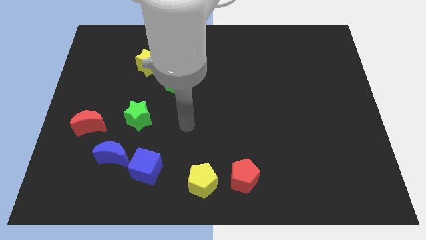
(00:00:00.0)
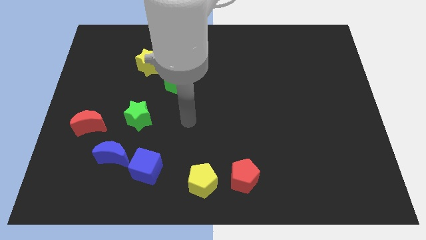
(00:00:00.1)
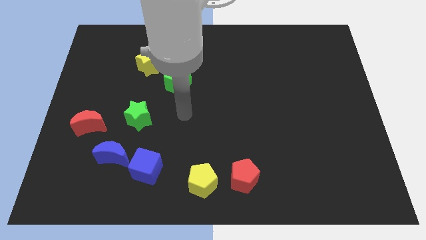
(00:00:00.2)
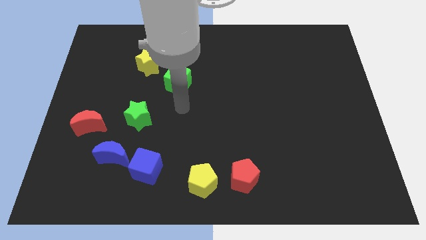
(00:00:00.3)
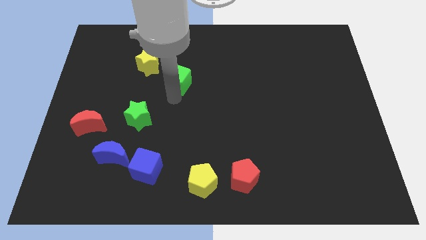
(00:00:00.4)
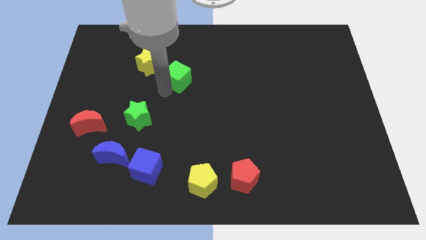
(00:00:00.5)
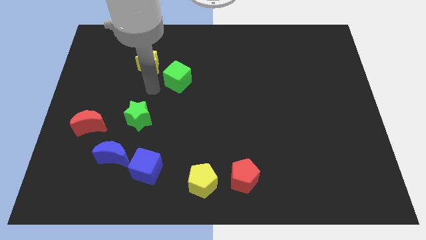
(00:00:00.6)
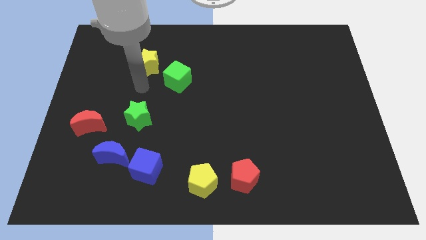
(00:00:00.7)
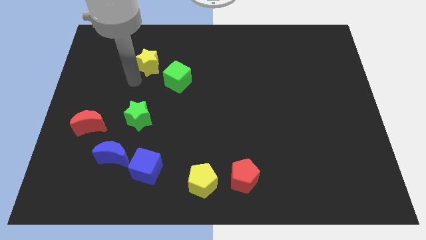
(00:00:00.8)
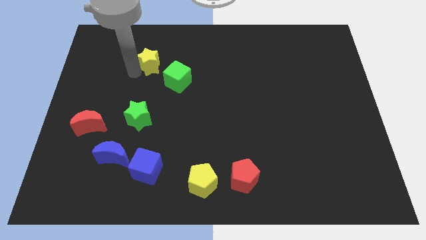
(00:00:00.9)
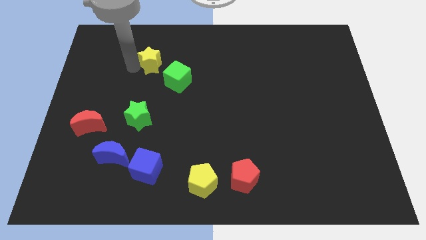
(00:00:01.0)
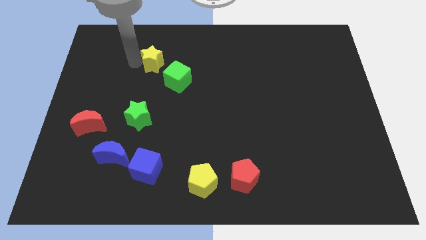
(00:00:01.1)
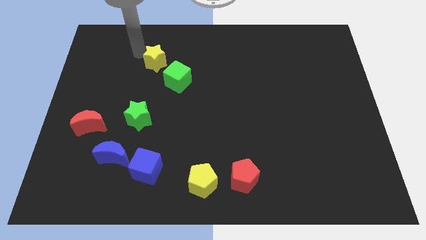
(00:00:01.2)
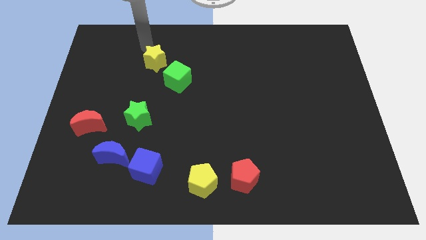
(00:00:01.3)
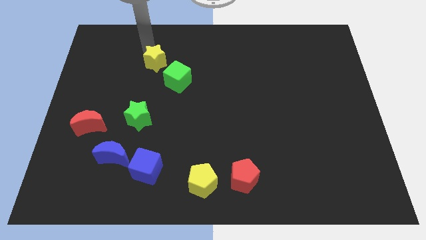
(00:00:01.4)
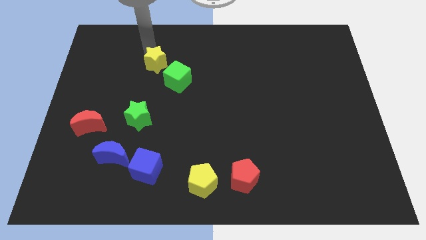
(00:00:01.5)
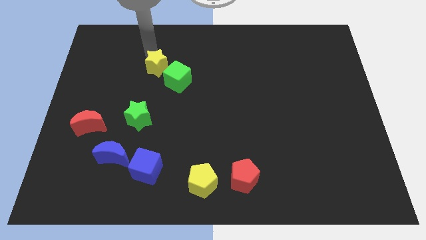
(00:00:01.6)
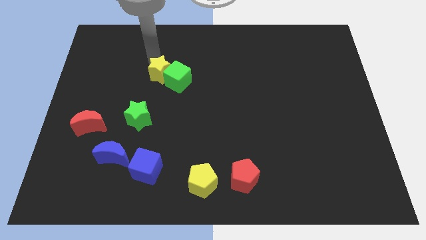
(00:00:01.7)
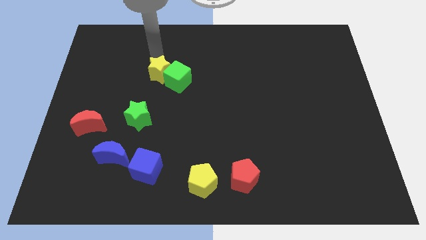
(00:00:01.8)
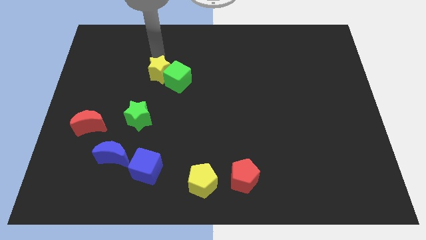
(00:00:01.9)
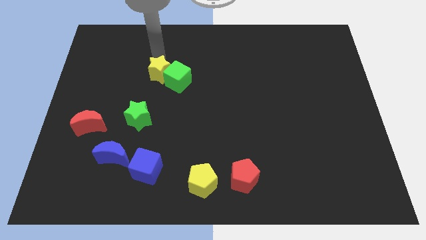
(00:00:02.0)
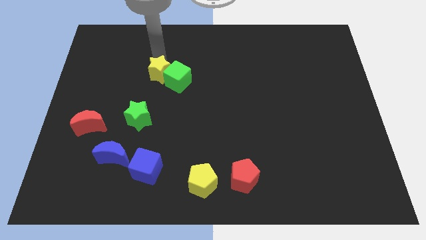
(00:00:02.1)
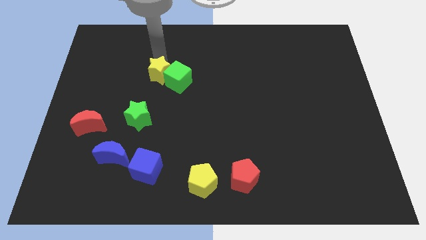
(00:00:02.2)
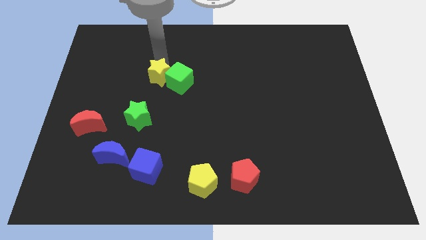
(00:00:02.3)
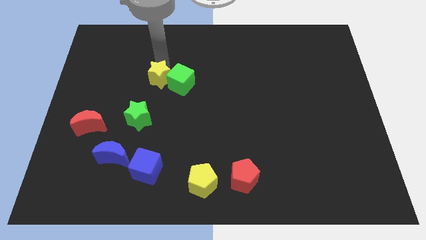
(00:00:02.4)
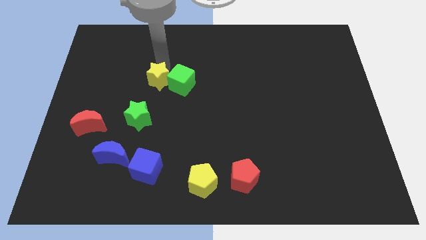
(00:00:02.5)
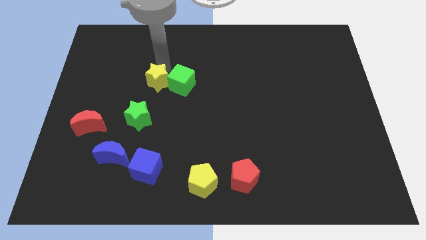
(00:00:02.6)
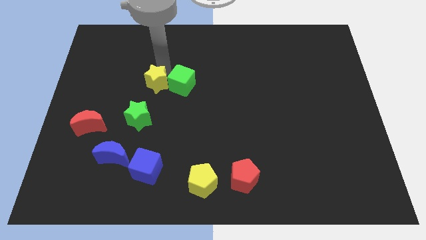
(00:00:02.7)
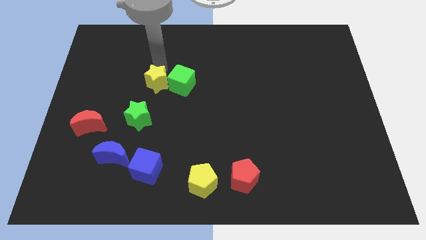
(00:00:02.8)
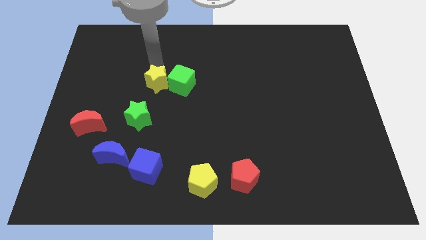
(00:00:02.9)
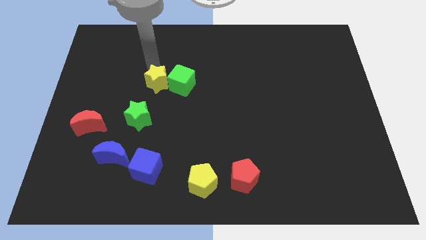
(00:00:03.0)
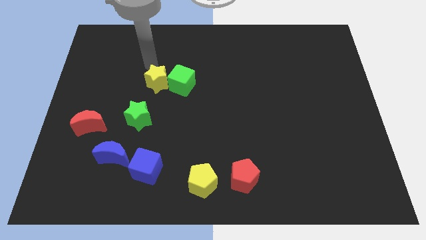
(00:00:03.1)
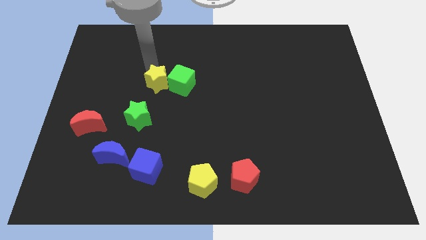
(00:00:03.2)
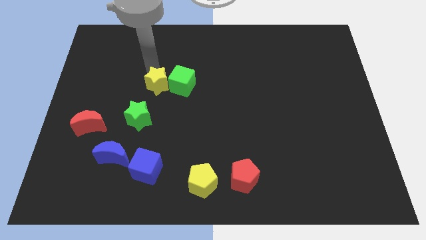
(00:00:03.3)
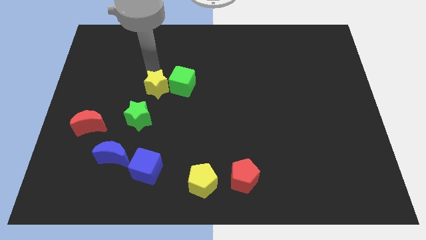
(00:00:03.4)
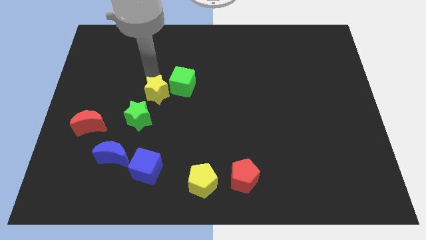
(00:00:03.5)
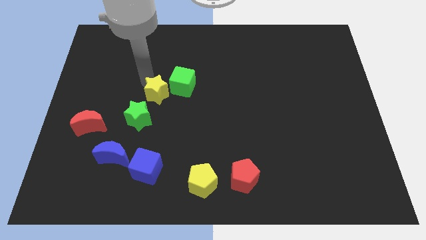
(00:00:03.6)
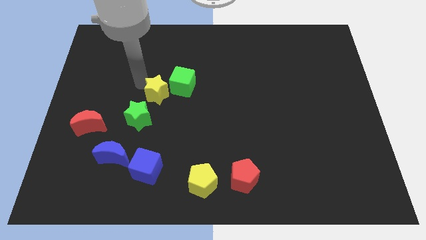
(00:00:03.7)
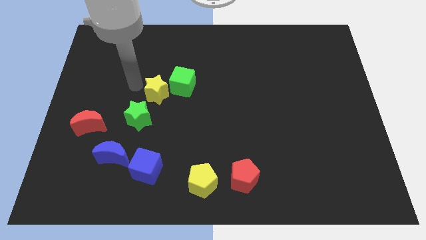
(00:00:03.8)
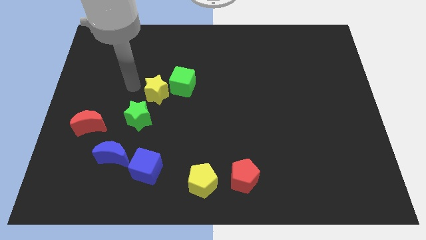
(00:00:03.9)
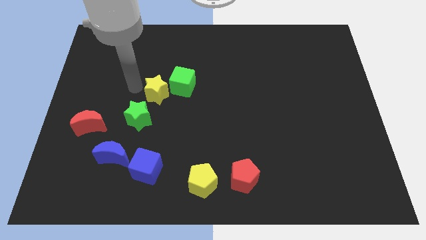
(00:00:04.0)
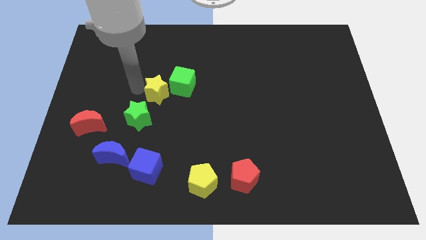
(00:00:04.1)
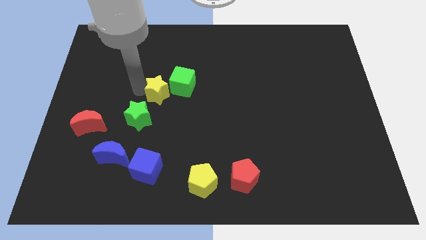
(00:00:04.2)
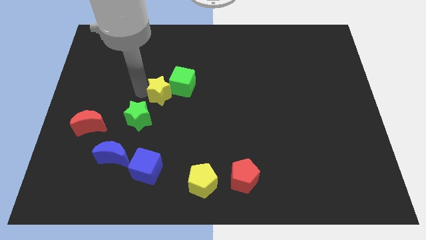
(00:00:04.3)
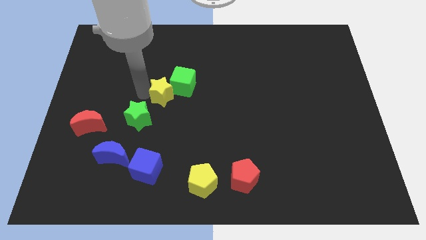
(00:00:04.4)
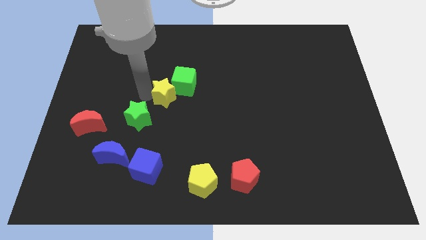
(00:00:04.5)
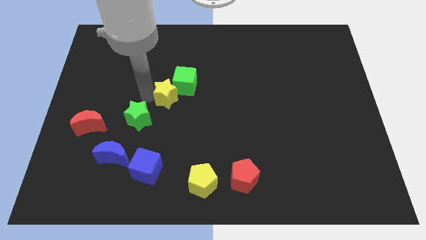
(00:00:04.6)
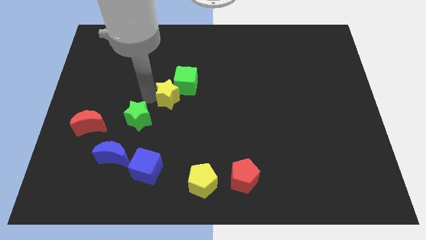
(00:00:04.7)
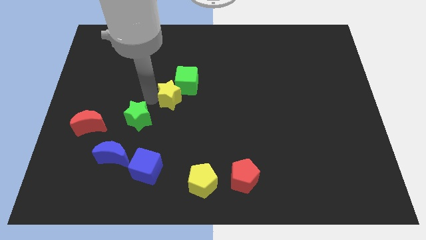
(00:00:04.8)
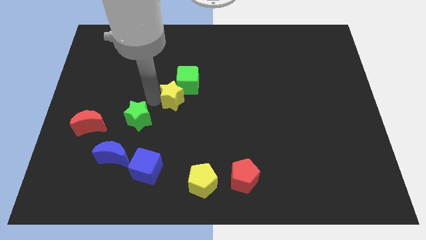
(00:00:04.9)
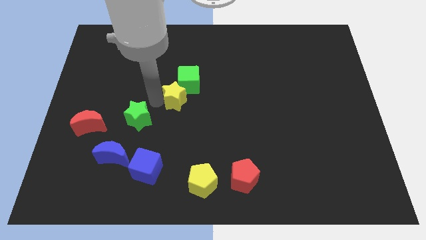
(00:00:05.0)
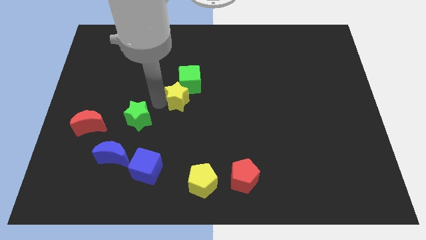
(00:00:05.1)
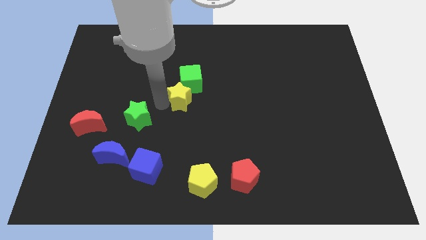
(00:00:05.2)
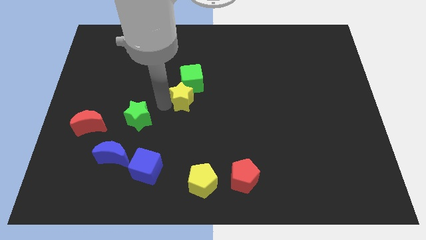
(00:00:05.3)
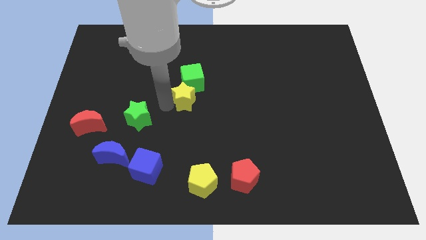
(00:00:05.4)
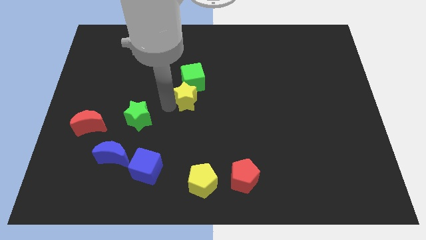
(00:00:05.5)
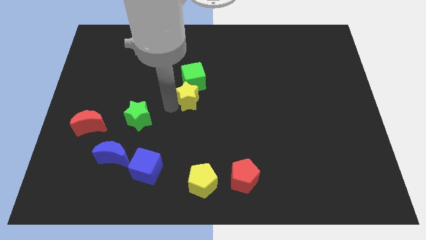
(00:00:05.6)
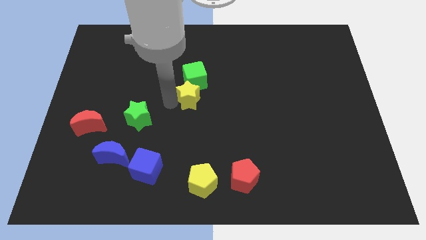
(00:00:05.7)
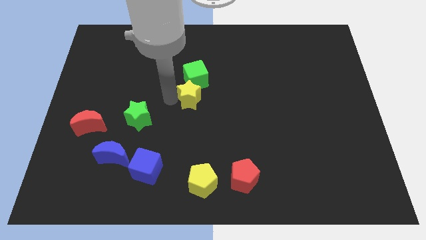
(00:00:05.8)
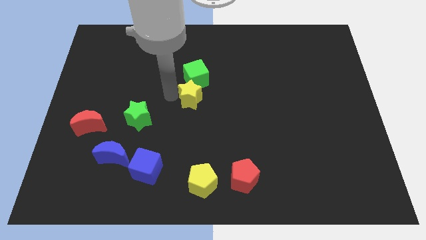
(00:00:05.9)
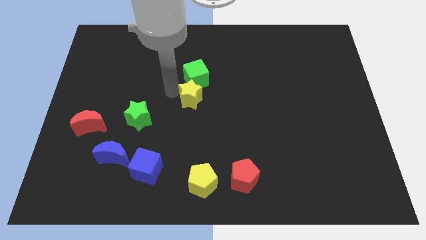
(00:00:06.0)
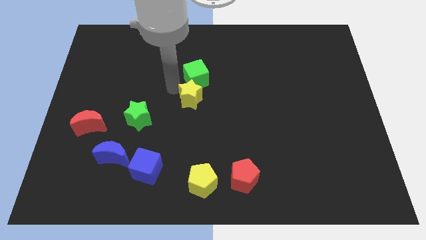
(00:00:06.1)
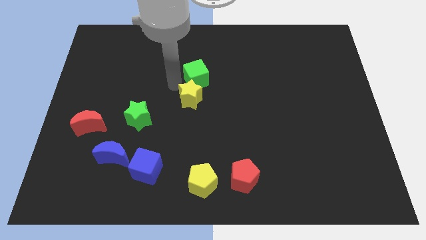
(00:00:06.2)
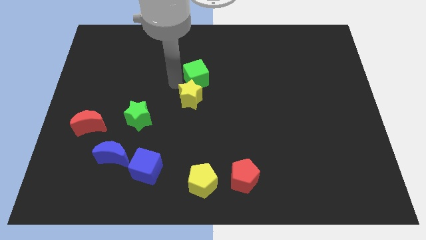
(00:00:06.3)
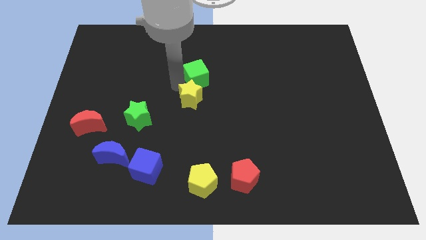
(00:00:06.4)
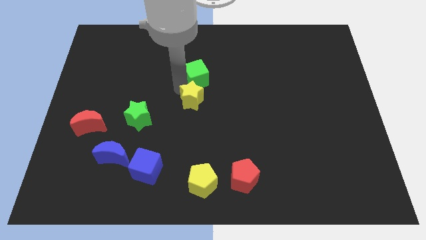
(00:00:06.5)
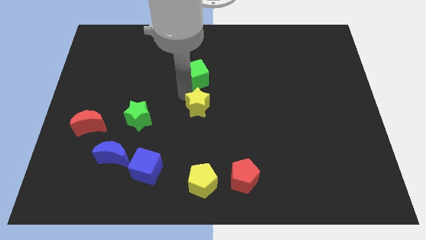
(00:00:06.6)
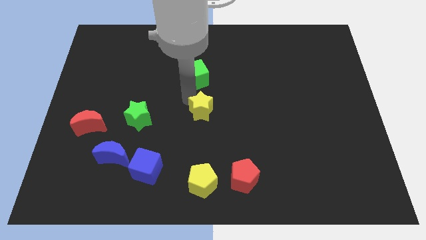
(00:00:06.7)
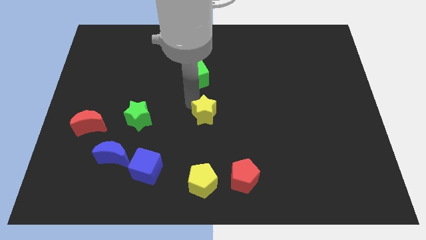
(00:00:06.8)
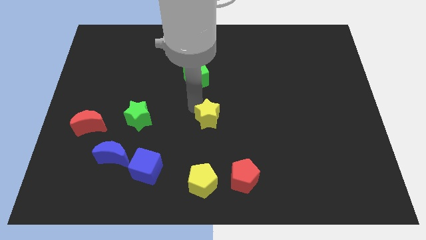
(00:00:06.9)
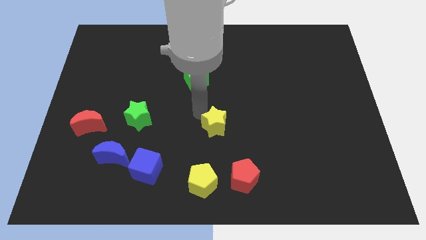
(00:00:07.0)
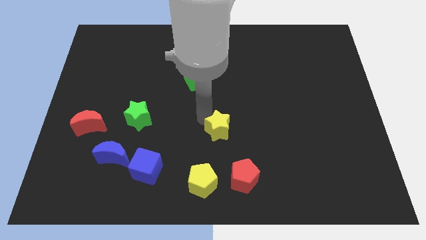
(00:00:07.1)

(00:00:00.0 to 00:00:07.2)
put the yellow star above the red pentagon
